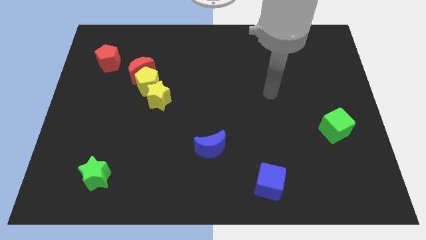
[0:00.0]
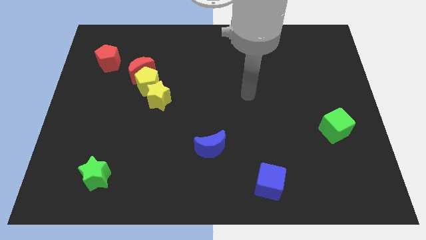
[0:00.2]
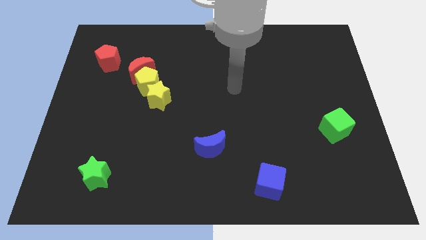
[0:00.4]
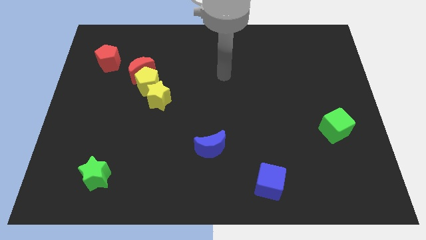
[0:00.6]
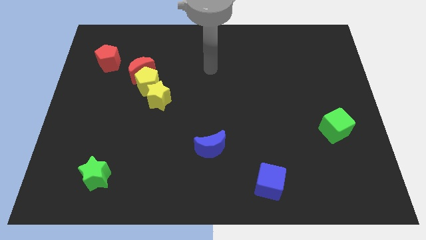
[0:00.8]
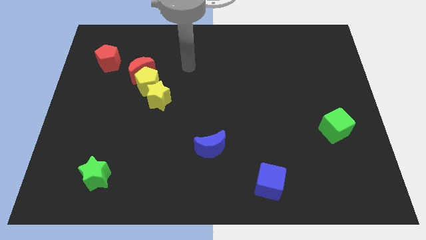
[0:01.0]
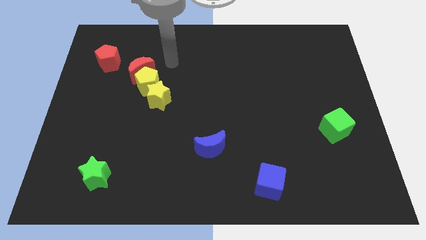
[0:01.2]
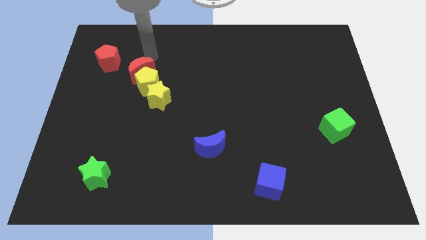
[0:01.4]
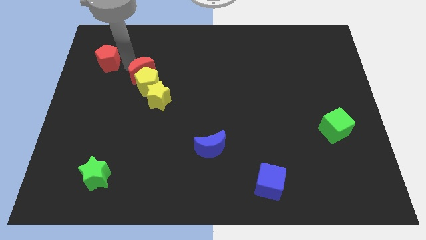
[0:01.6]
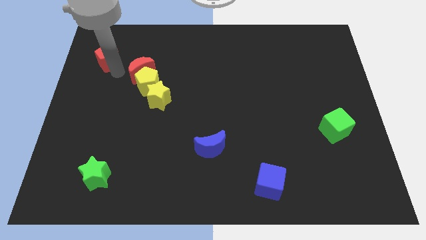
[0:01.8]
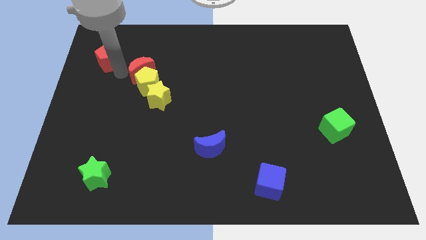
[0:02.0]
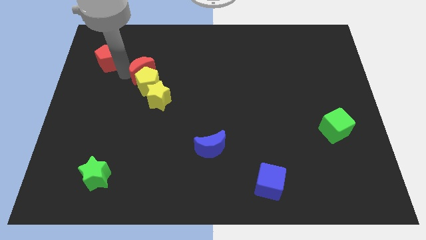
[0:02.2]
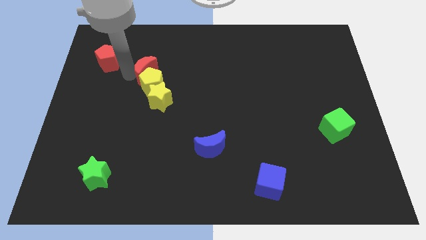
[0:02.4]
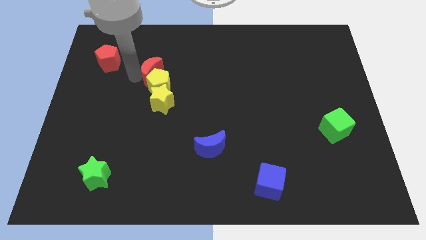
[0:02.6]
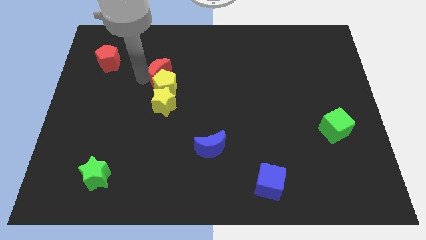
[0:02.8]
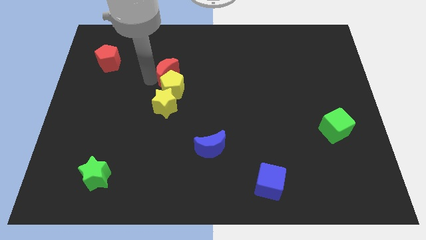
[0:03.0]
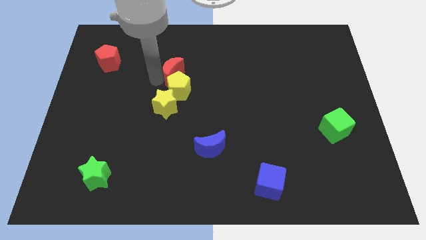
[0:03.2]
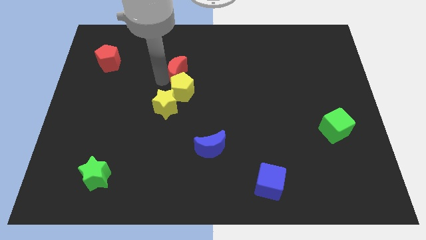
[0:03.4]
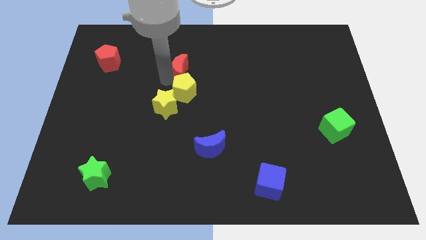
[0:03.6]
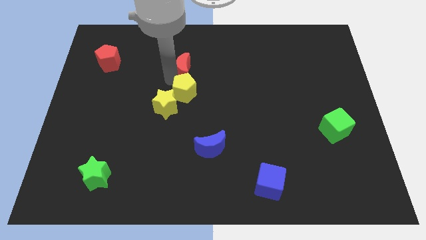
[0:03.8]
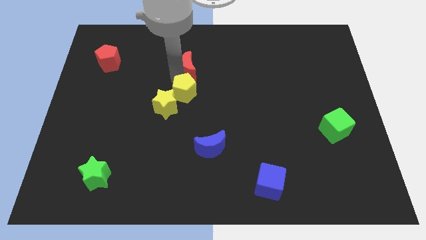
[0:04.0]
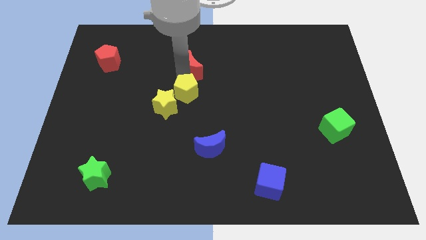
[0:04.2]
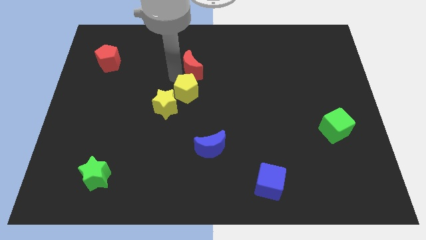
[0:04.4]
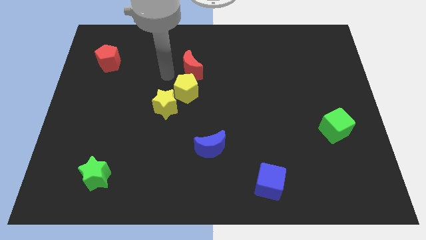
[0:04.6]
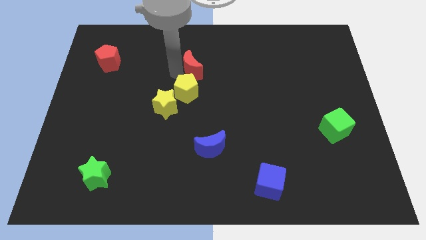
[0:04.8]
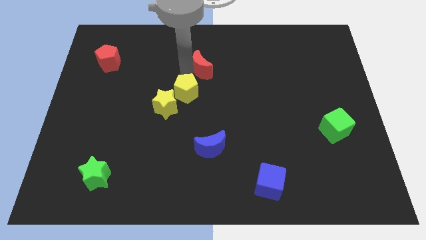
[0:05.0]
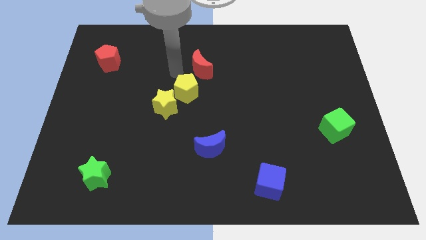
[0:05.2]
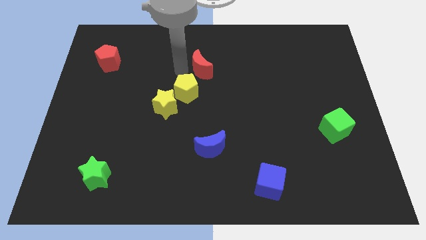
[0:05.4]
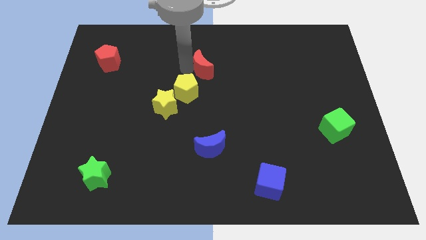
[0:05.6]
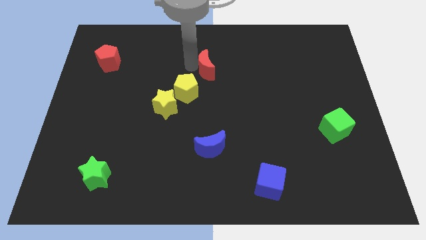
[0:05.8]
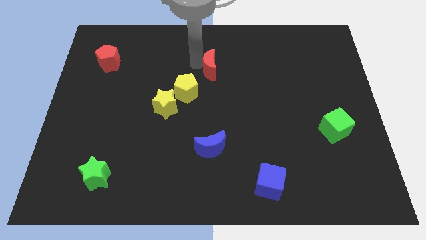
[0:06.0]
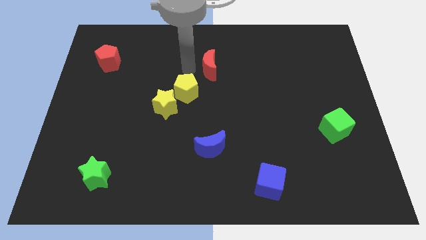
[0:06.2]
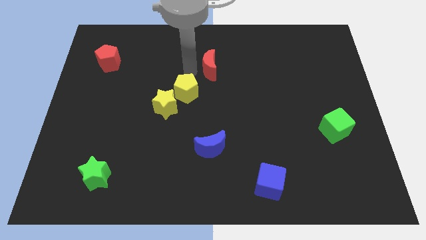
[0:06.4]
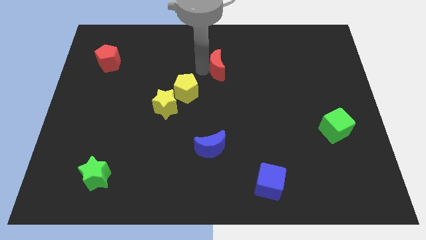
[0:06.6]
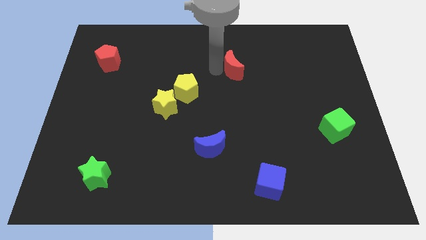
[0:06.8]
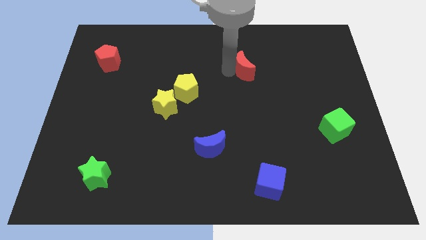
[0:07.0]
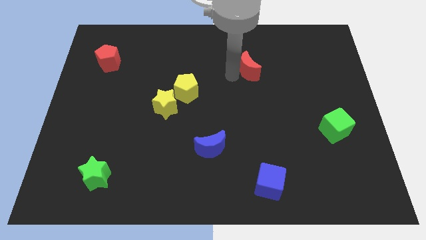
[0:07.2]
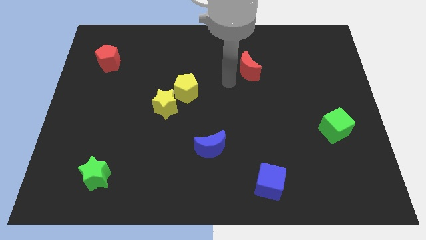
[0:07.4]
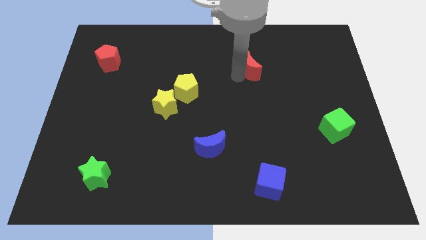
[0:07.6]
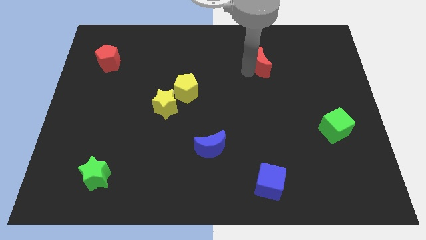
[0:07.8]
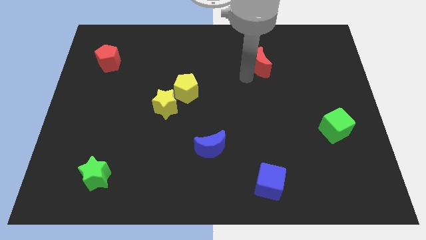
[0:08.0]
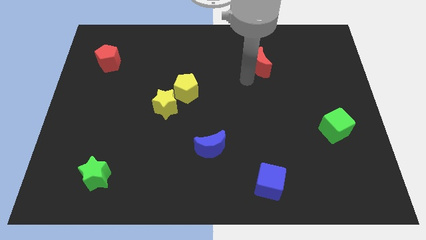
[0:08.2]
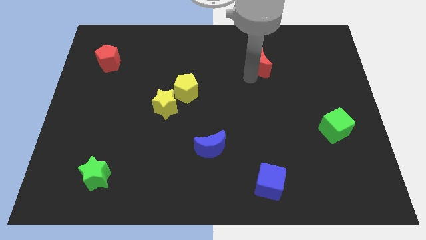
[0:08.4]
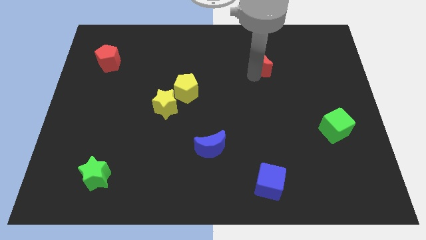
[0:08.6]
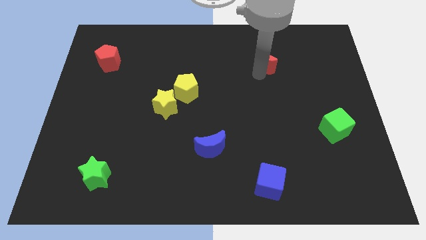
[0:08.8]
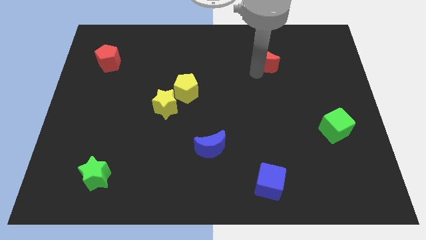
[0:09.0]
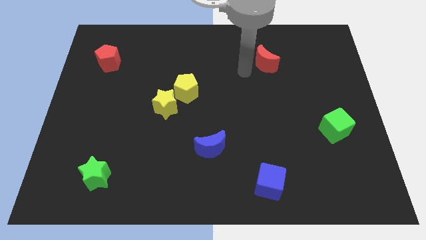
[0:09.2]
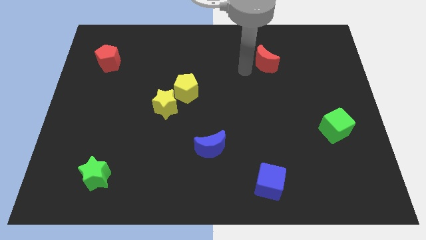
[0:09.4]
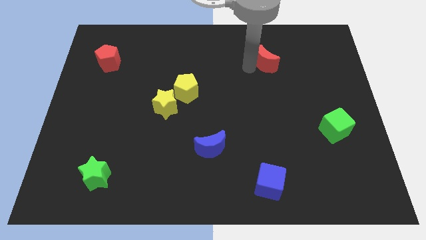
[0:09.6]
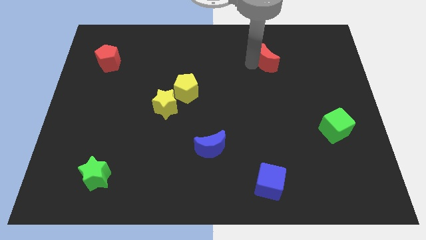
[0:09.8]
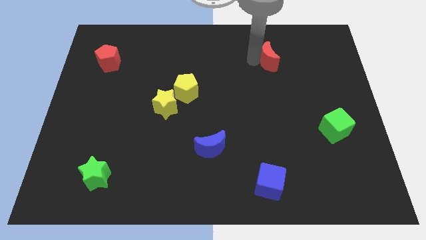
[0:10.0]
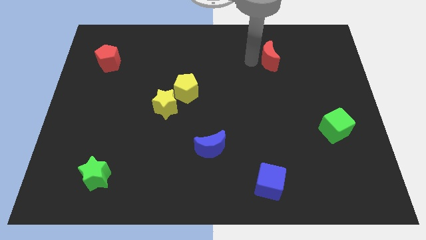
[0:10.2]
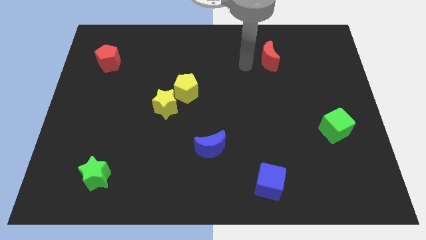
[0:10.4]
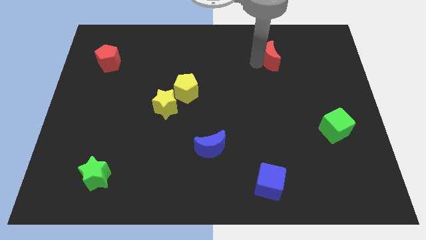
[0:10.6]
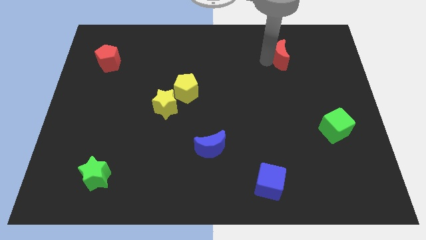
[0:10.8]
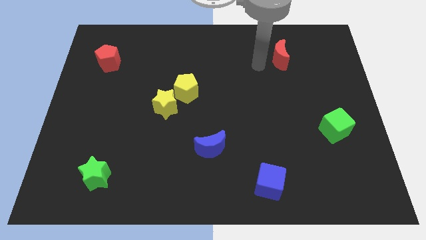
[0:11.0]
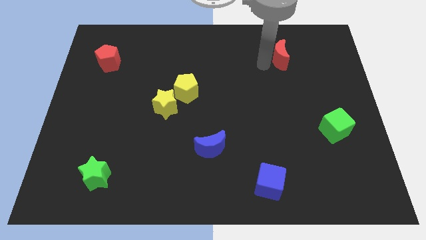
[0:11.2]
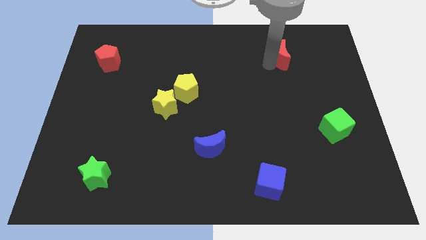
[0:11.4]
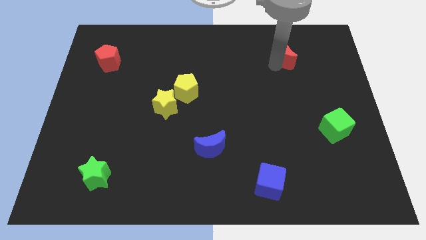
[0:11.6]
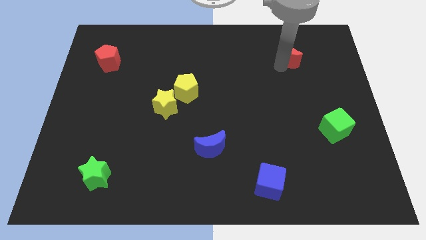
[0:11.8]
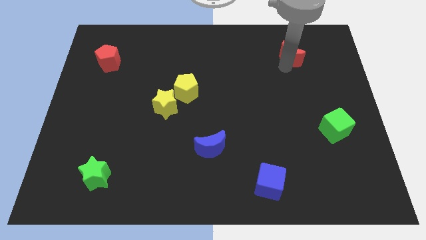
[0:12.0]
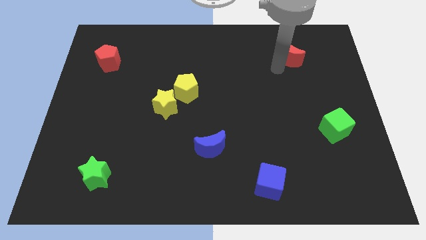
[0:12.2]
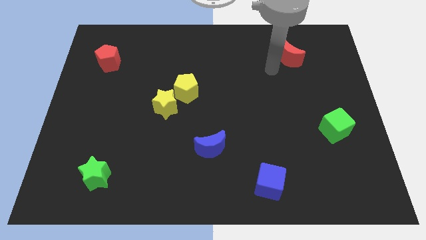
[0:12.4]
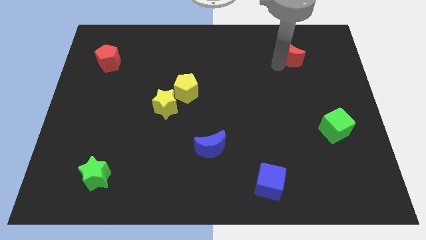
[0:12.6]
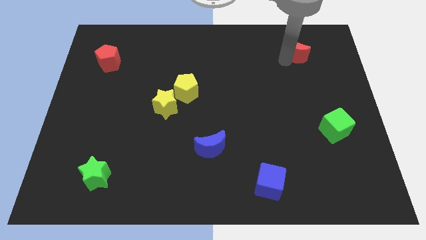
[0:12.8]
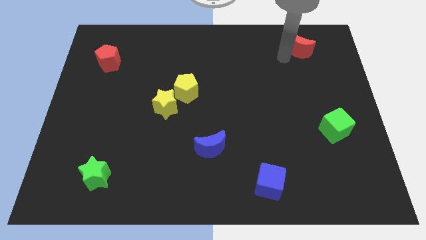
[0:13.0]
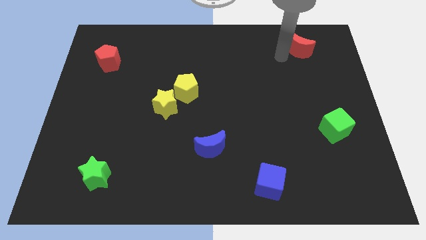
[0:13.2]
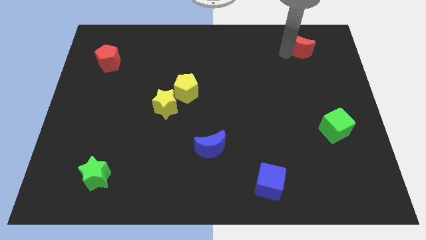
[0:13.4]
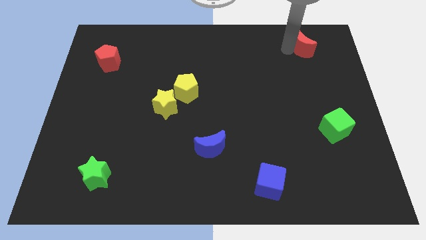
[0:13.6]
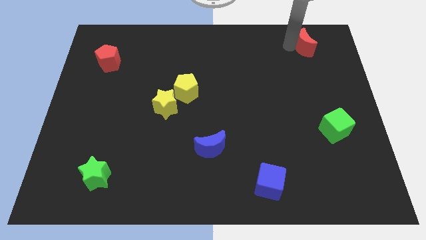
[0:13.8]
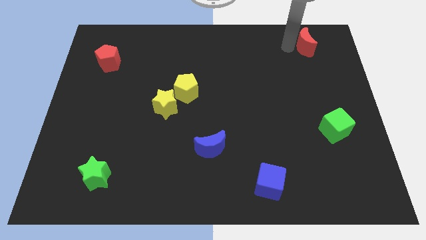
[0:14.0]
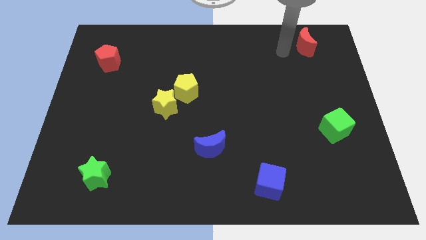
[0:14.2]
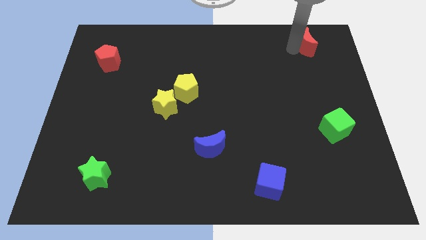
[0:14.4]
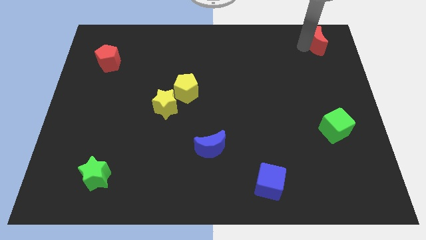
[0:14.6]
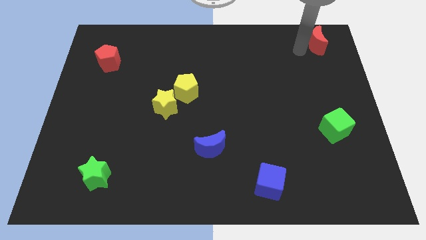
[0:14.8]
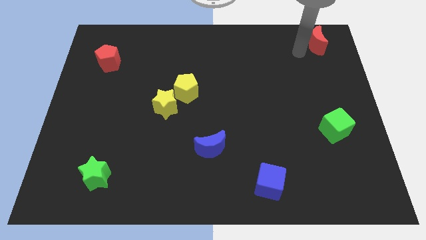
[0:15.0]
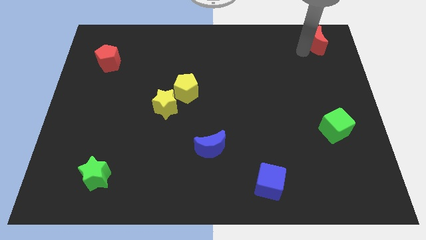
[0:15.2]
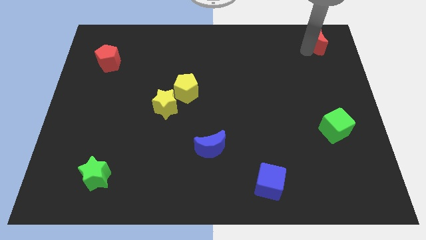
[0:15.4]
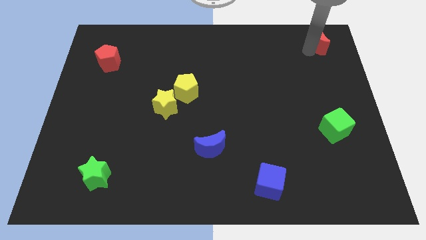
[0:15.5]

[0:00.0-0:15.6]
slide the red moon to the top right
